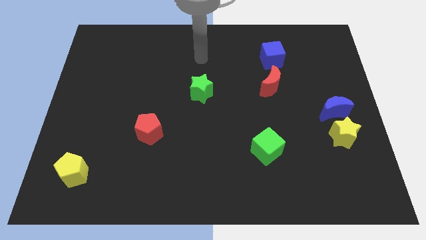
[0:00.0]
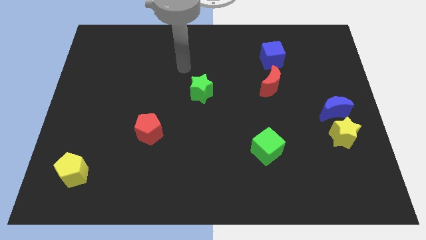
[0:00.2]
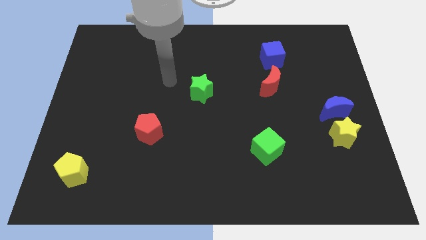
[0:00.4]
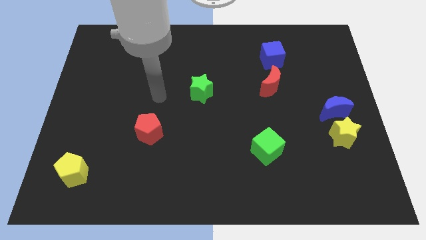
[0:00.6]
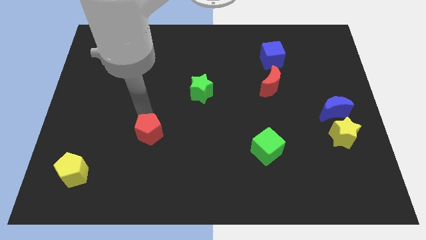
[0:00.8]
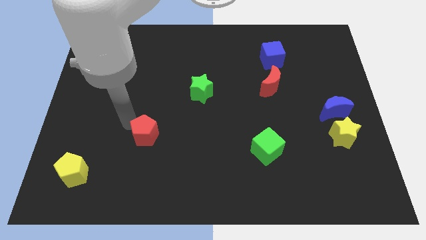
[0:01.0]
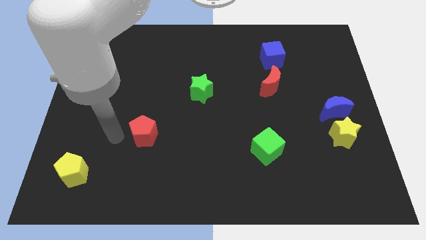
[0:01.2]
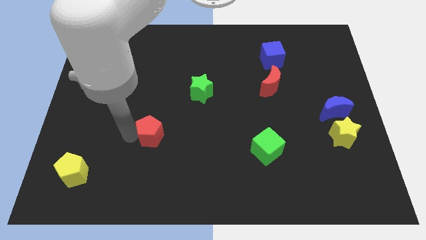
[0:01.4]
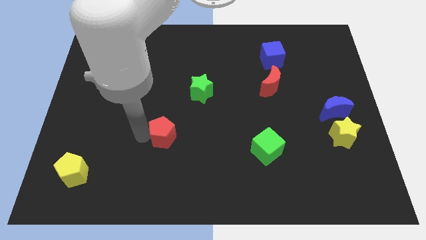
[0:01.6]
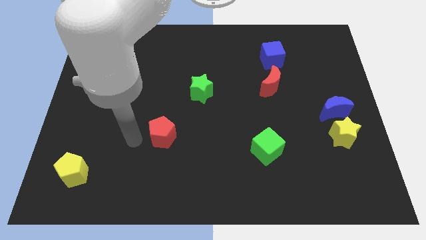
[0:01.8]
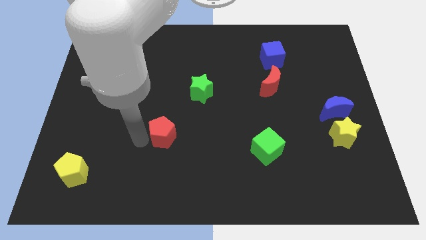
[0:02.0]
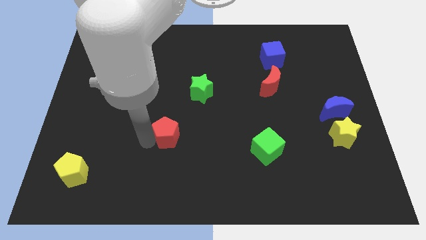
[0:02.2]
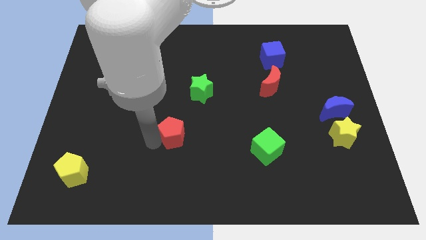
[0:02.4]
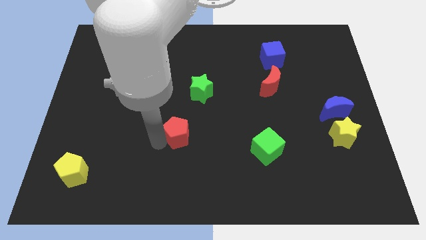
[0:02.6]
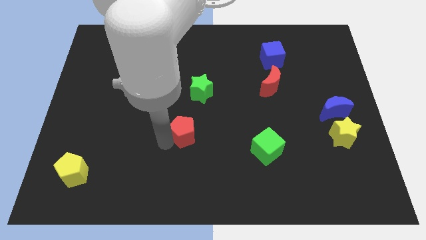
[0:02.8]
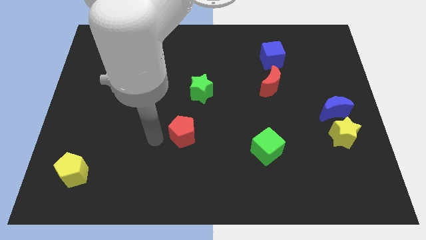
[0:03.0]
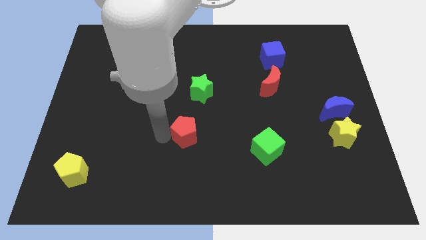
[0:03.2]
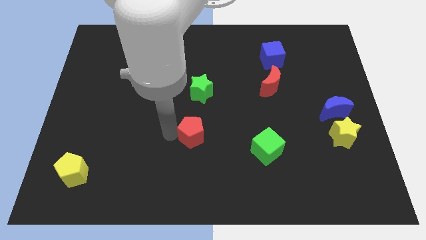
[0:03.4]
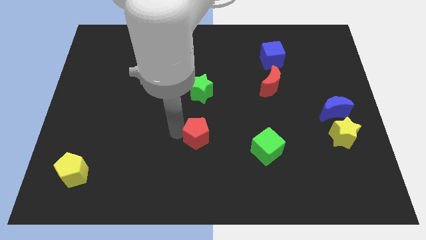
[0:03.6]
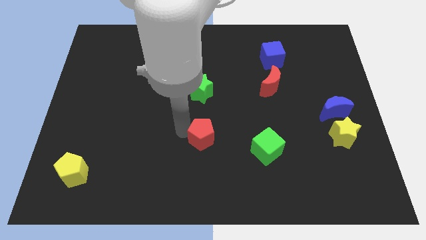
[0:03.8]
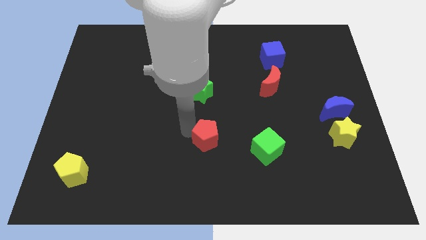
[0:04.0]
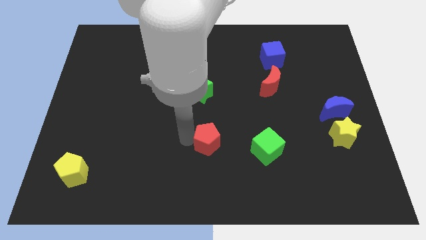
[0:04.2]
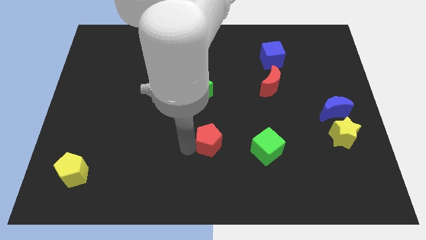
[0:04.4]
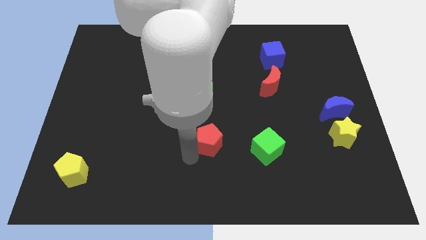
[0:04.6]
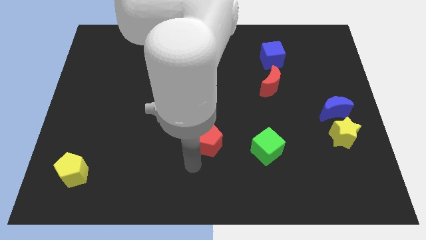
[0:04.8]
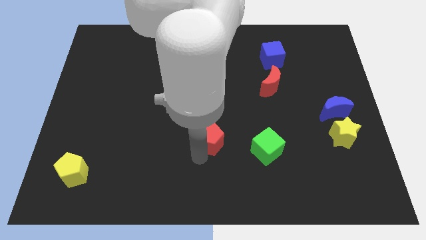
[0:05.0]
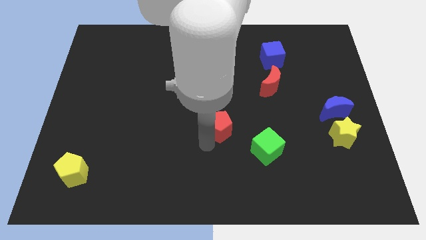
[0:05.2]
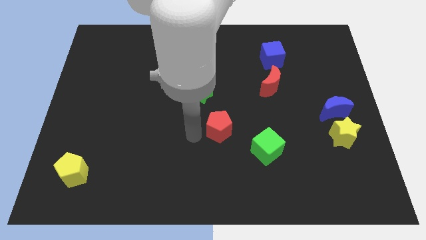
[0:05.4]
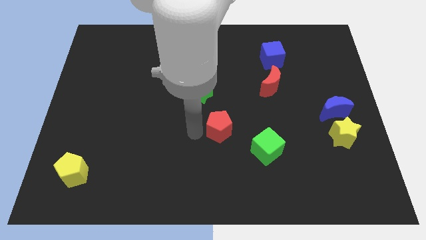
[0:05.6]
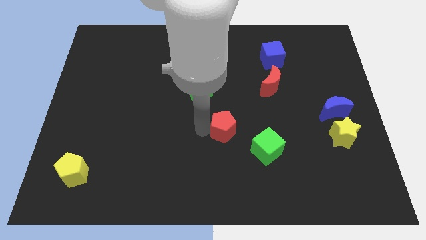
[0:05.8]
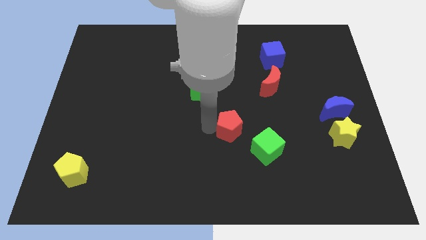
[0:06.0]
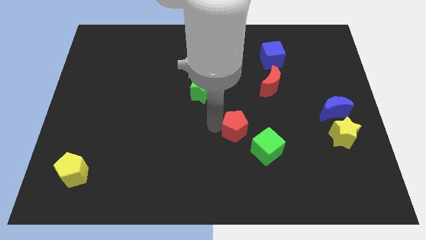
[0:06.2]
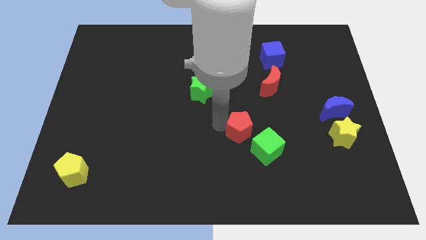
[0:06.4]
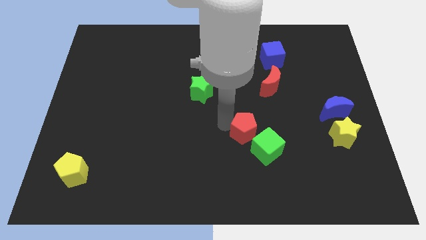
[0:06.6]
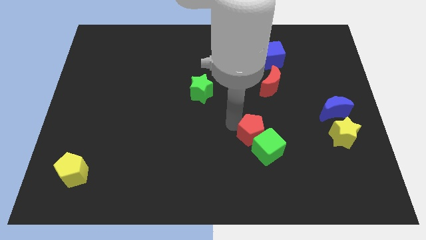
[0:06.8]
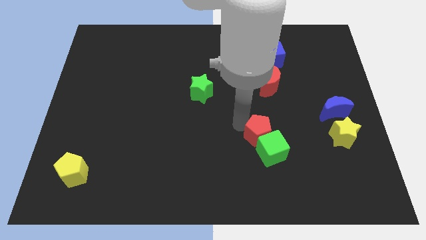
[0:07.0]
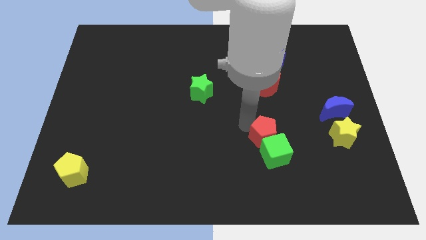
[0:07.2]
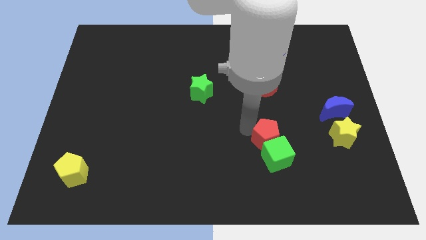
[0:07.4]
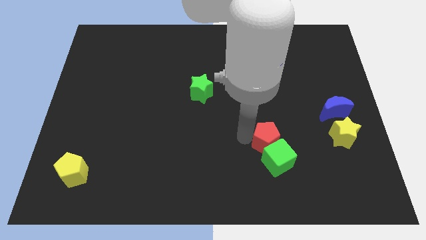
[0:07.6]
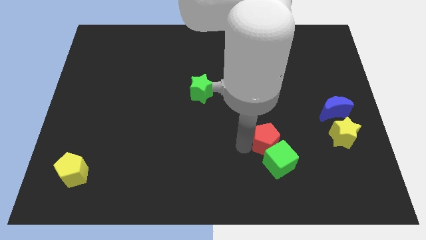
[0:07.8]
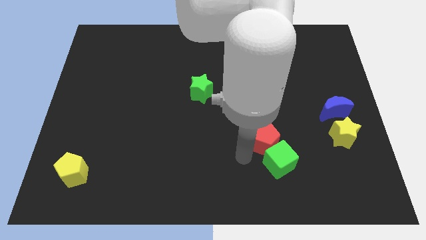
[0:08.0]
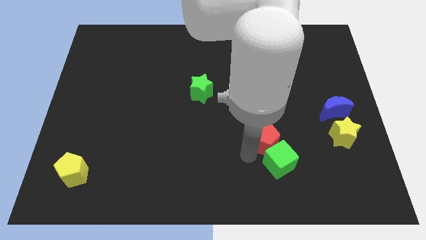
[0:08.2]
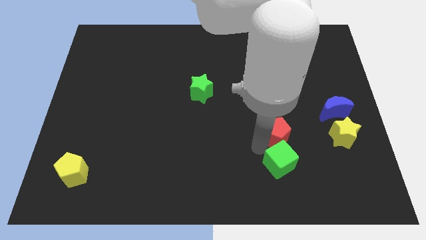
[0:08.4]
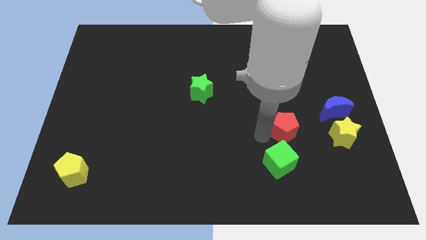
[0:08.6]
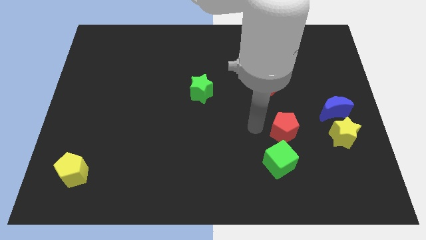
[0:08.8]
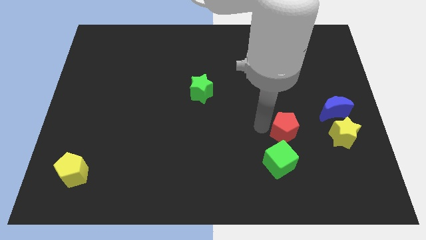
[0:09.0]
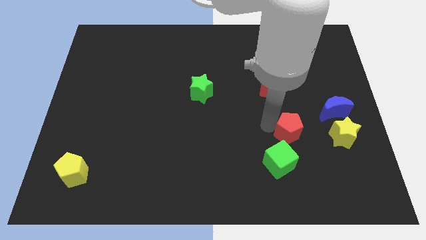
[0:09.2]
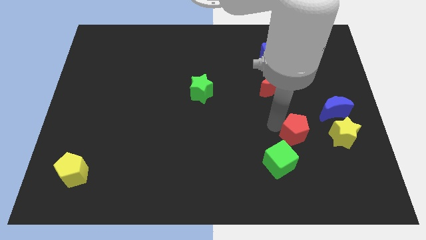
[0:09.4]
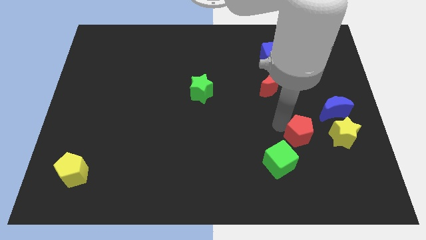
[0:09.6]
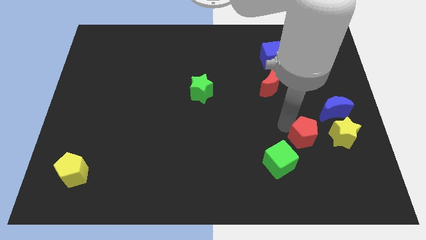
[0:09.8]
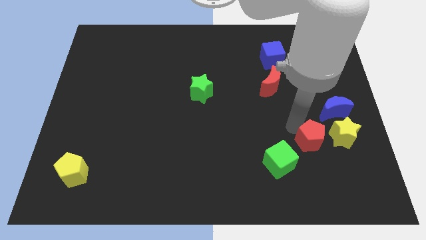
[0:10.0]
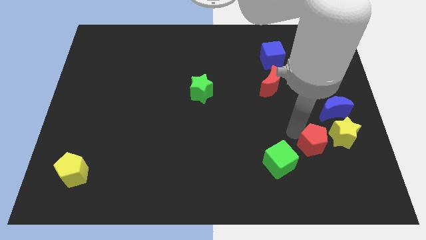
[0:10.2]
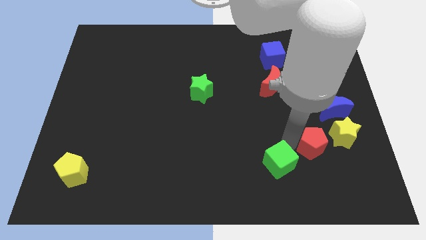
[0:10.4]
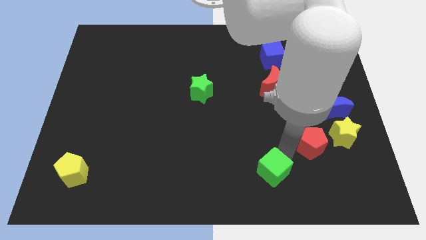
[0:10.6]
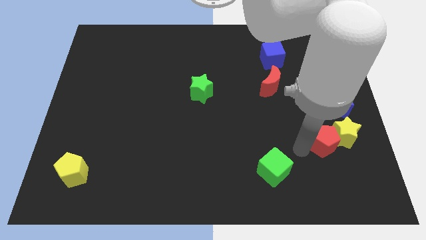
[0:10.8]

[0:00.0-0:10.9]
move the red pentagon towards the yellow star

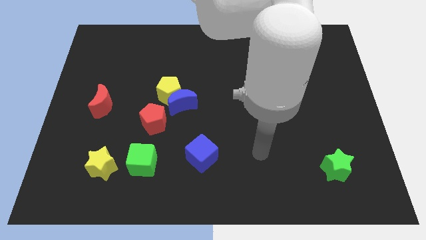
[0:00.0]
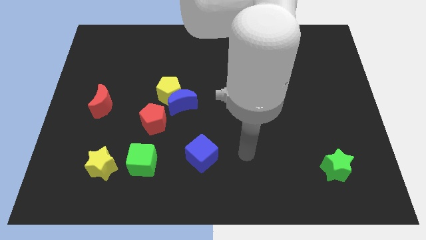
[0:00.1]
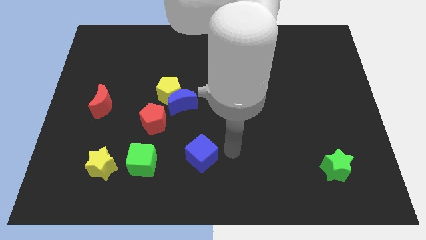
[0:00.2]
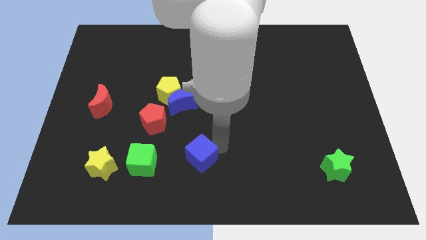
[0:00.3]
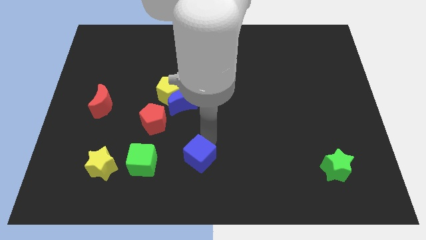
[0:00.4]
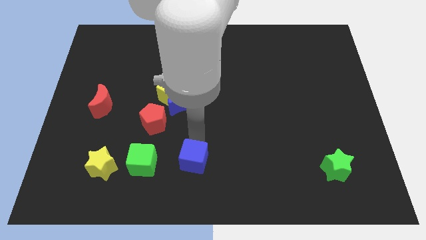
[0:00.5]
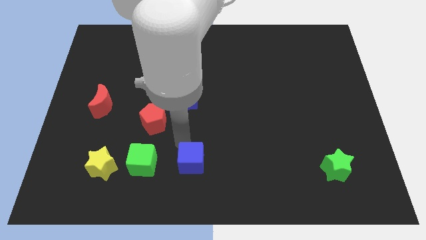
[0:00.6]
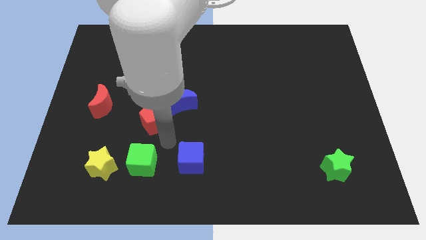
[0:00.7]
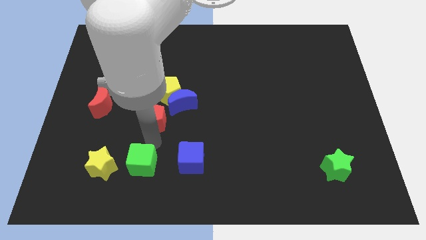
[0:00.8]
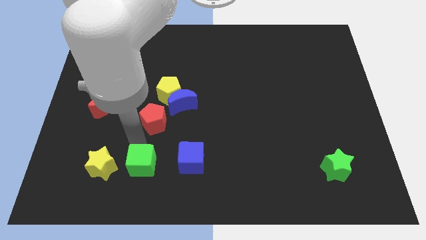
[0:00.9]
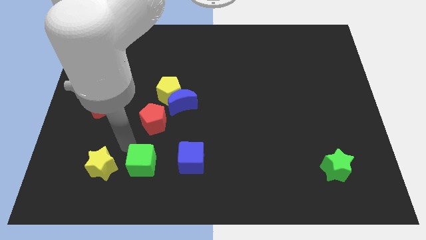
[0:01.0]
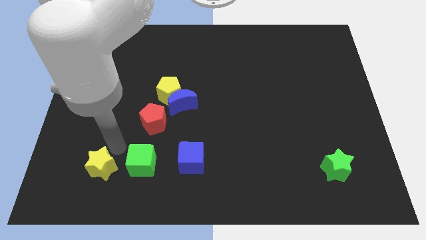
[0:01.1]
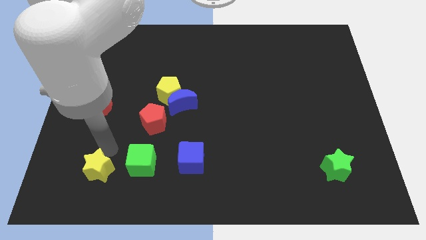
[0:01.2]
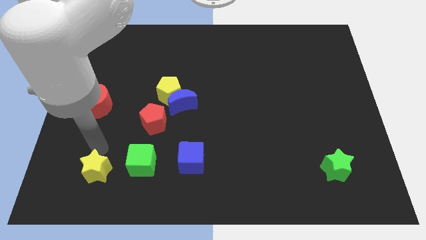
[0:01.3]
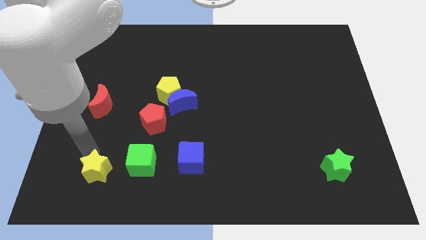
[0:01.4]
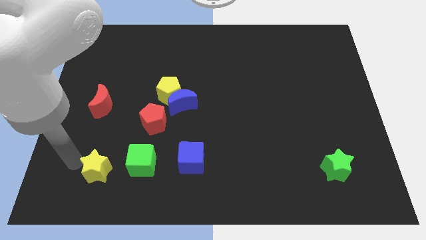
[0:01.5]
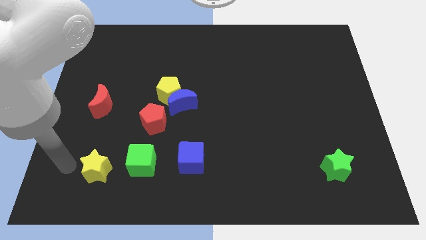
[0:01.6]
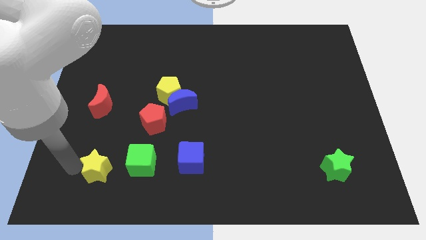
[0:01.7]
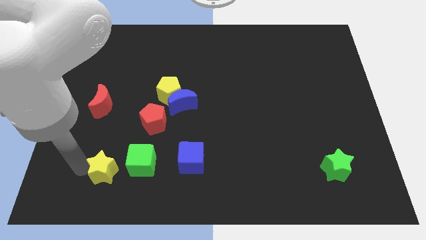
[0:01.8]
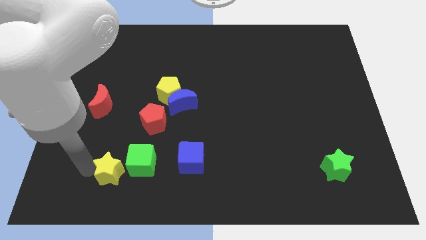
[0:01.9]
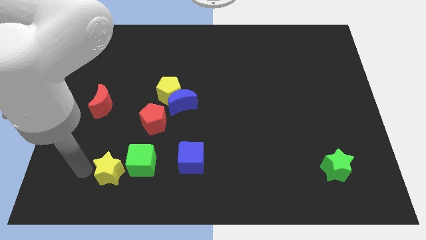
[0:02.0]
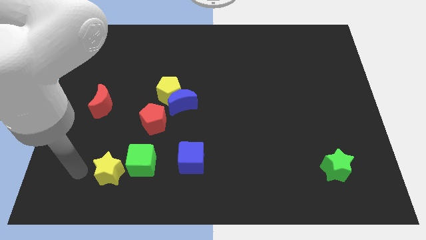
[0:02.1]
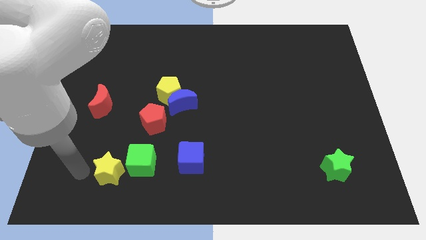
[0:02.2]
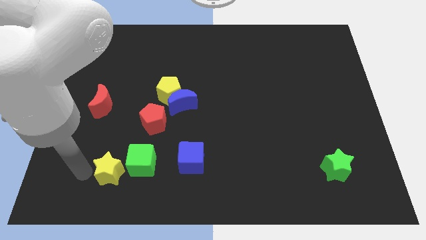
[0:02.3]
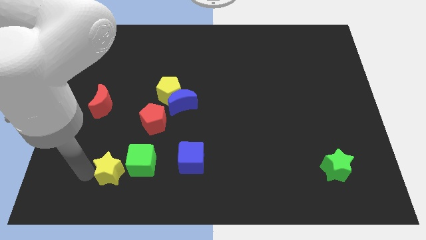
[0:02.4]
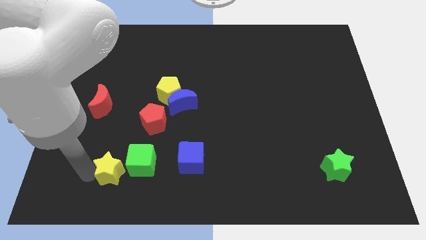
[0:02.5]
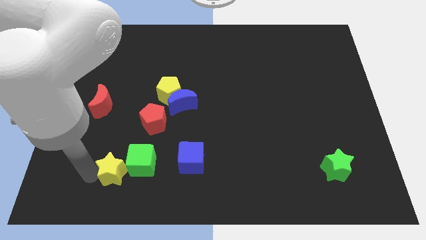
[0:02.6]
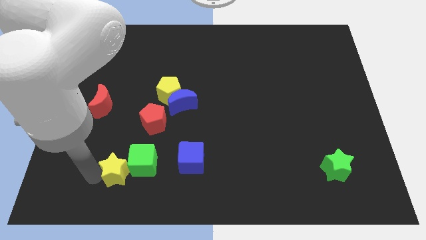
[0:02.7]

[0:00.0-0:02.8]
move the yellow star towards the green cube
